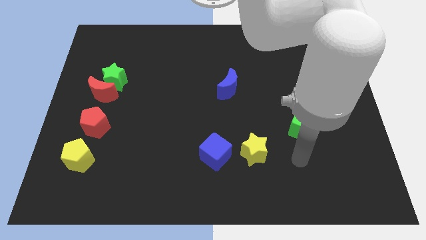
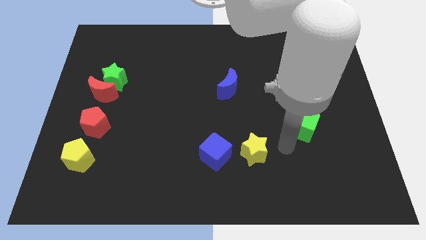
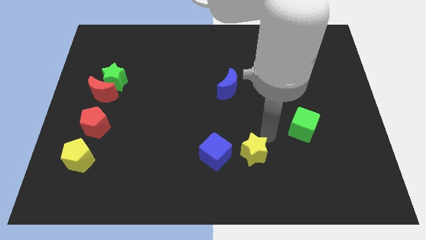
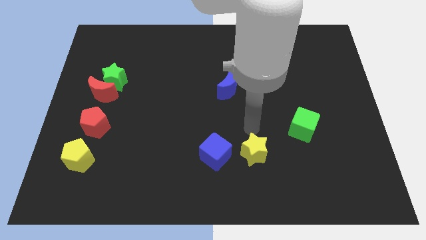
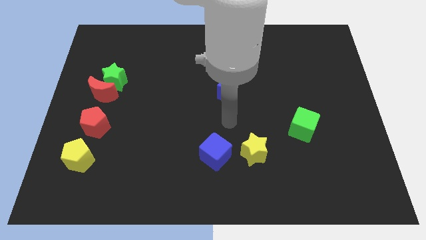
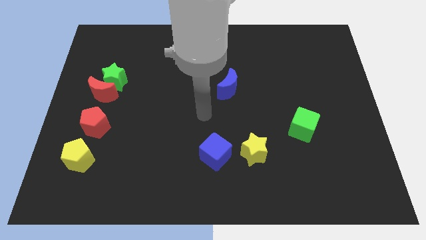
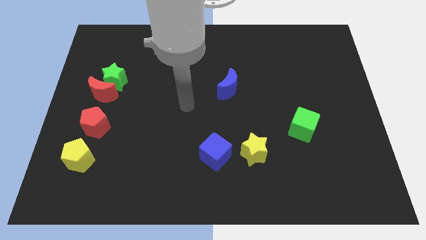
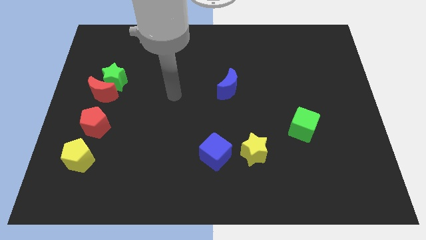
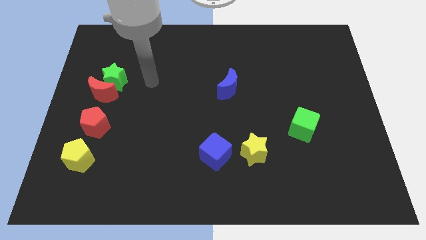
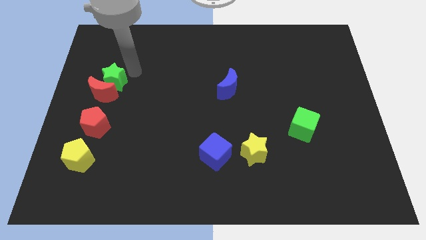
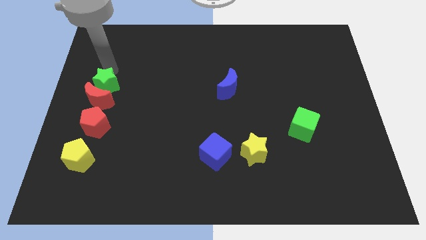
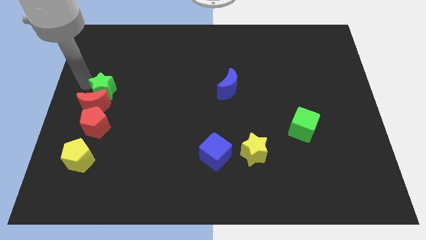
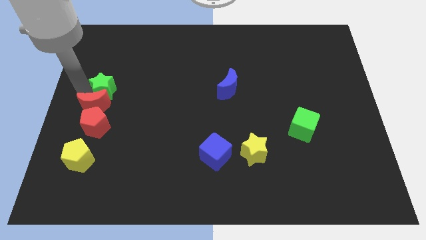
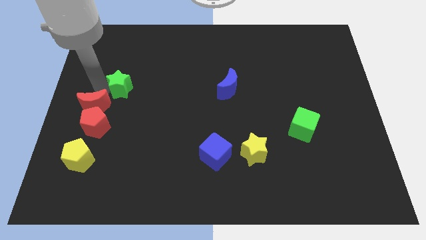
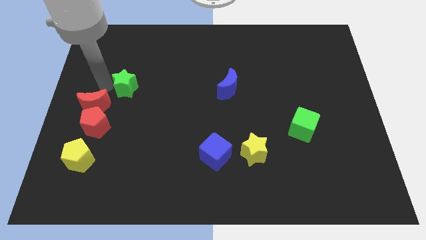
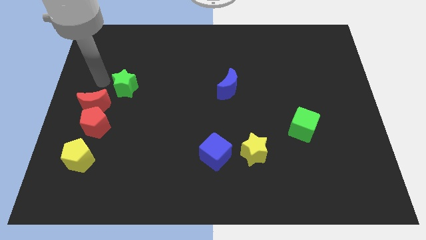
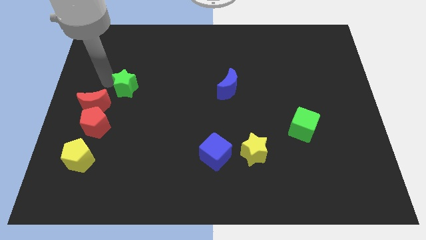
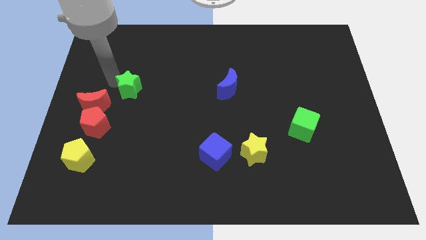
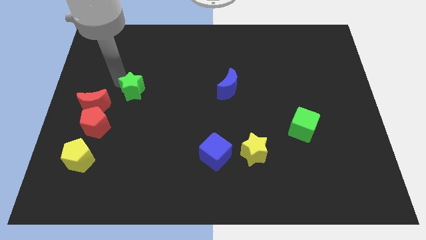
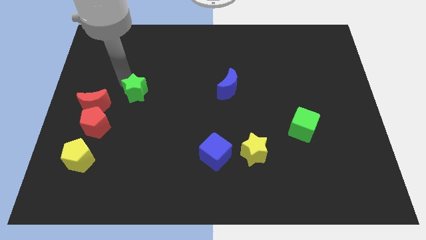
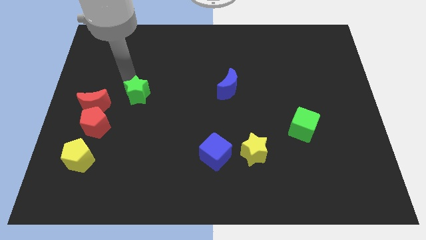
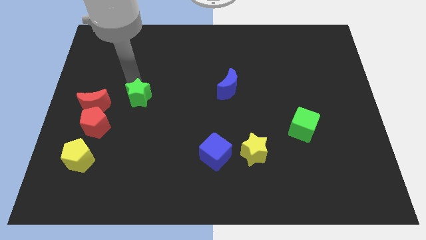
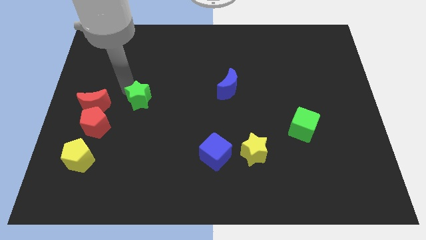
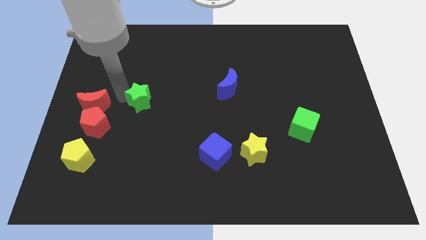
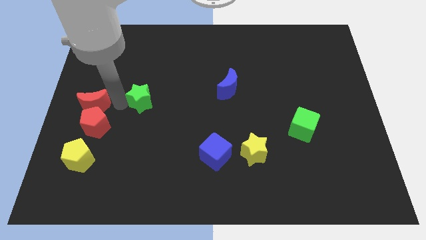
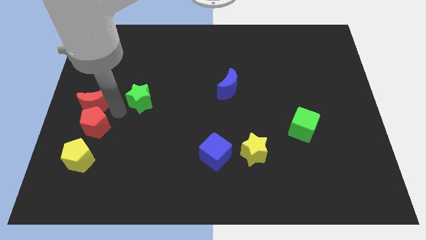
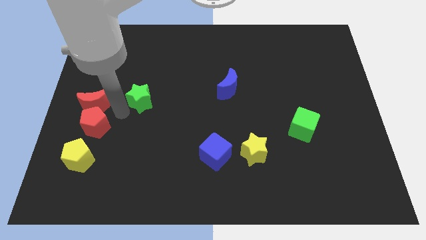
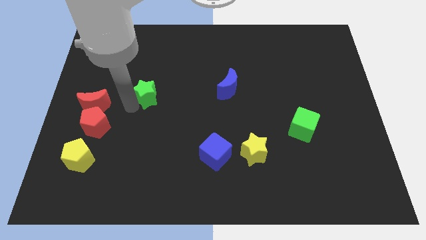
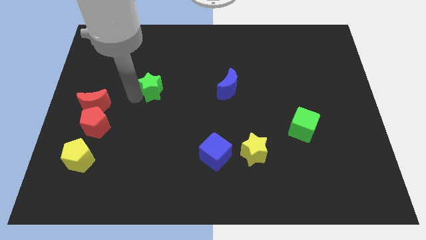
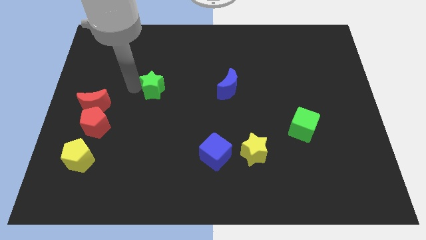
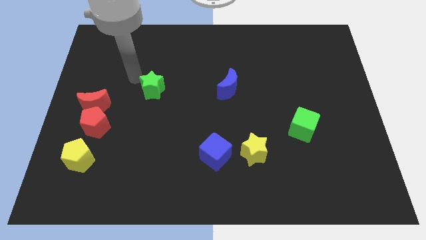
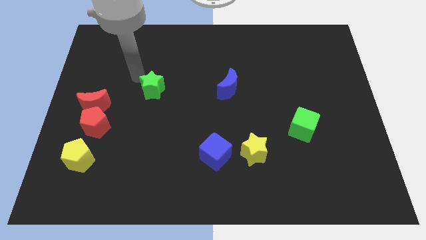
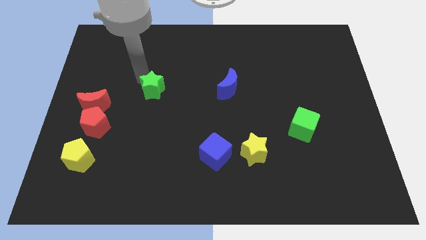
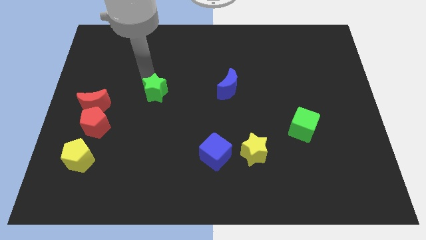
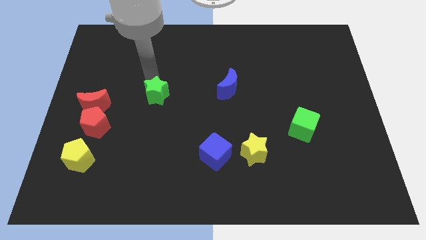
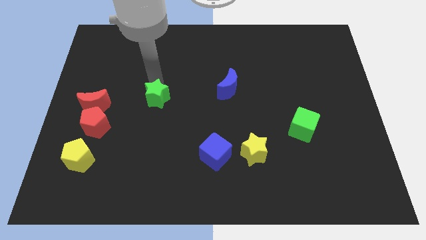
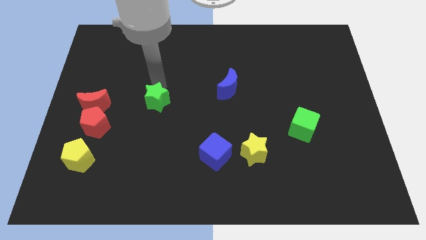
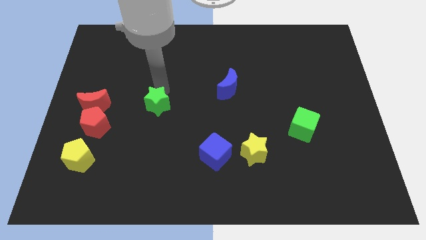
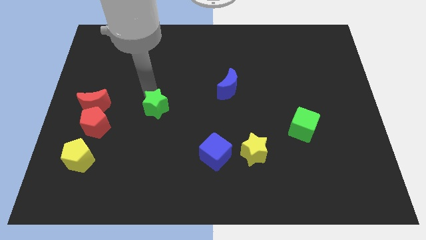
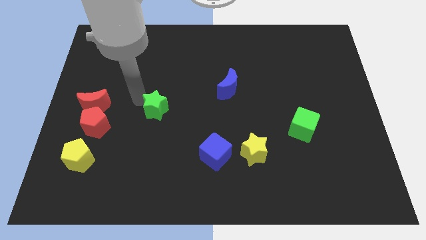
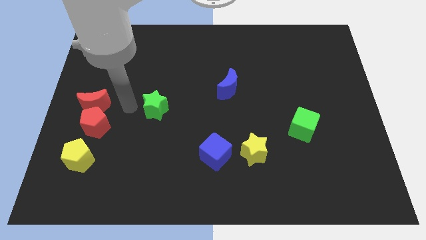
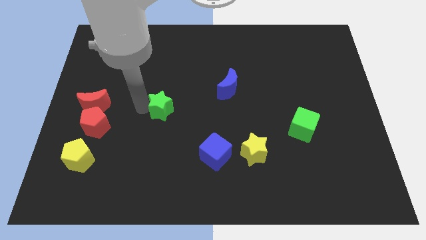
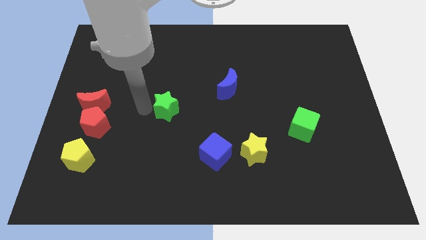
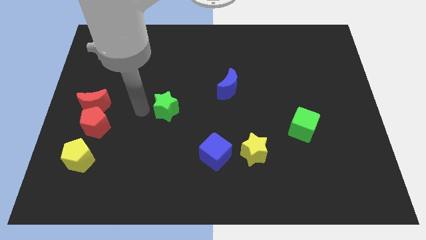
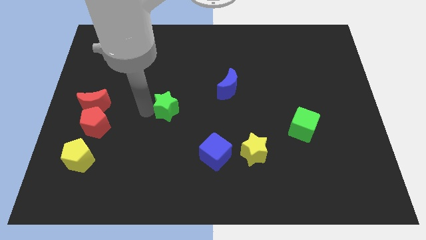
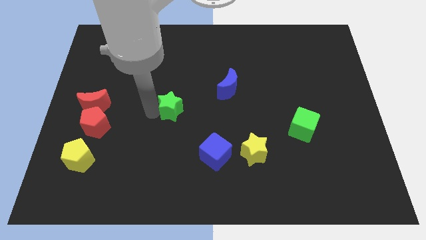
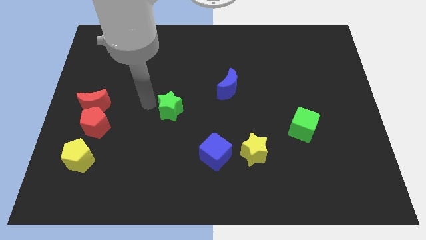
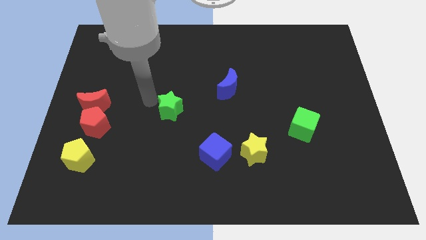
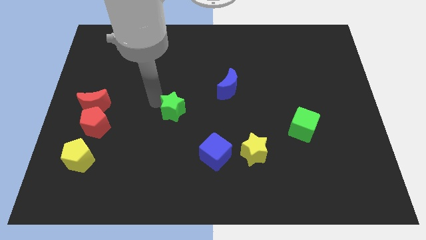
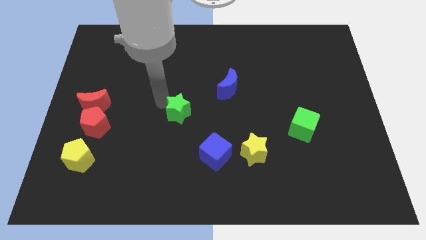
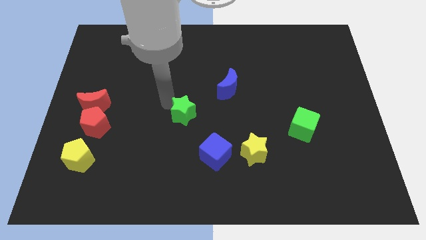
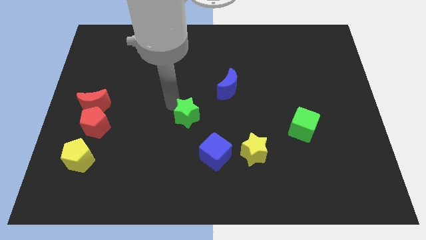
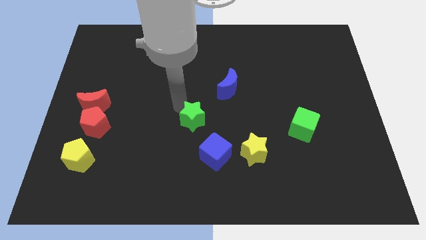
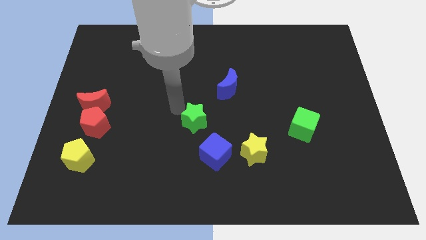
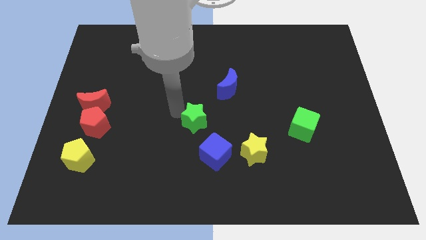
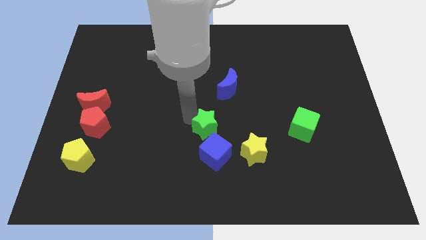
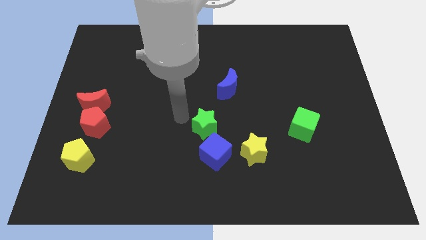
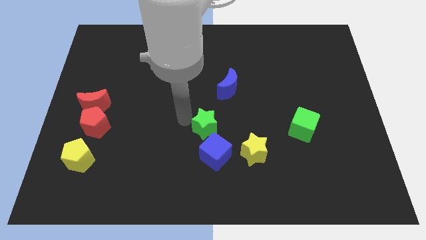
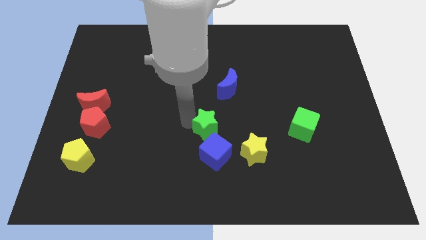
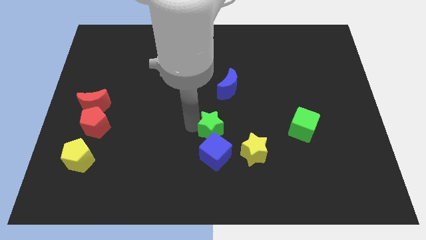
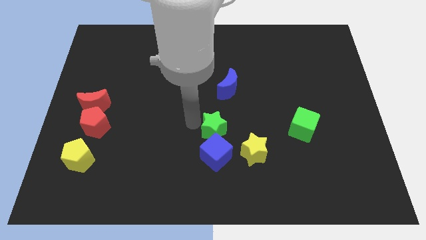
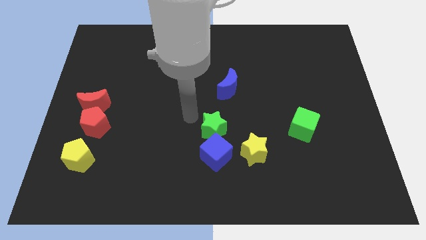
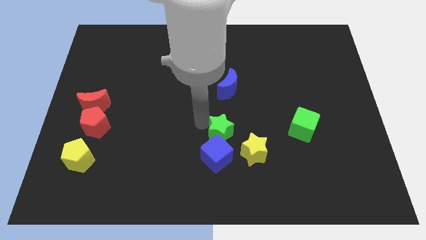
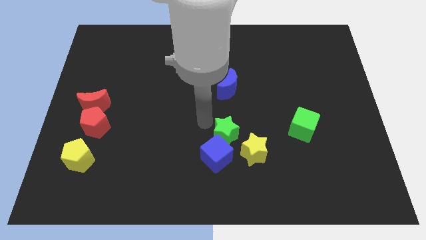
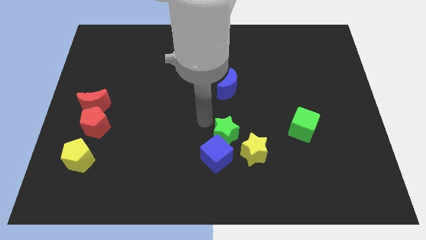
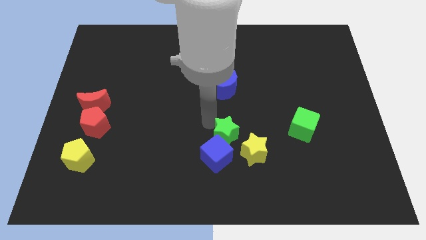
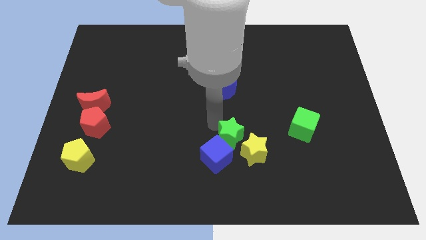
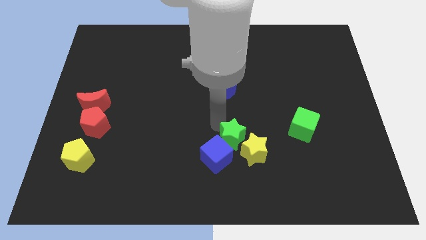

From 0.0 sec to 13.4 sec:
slide the green star towards the yellow star
